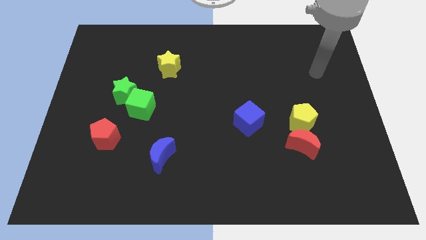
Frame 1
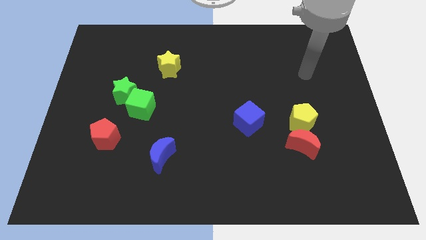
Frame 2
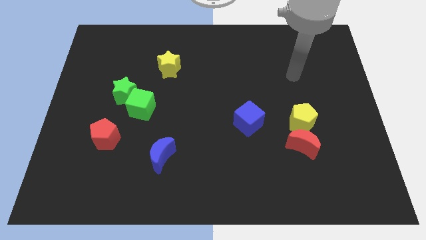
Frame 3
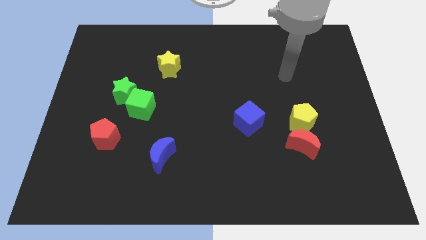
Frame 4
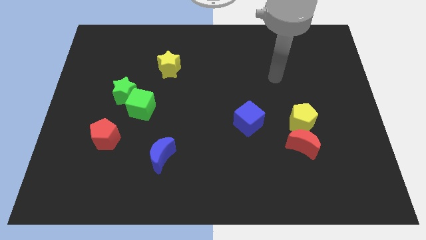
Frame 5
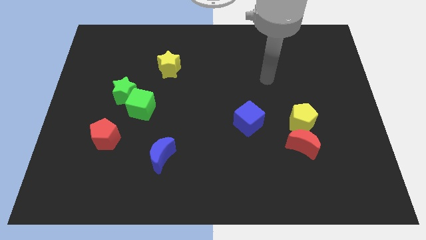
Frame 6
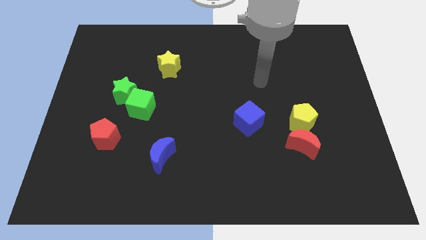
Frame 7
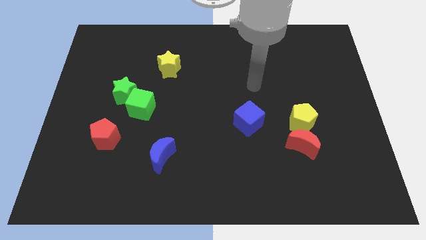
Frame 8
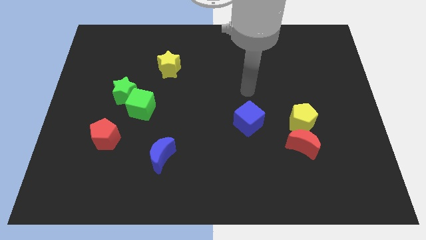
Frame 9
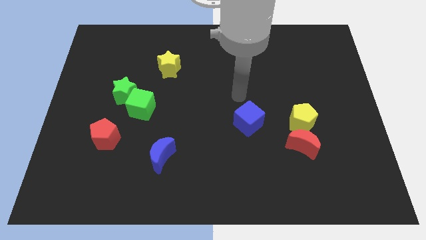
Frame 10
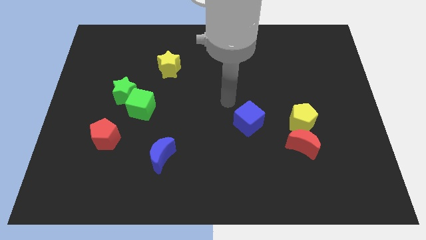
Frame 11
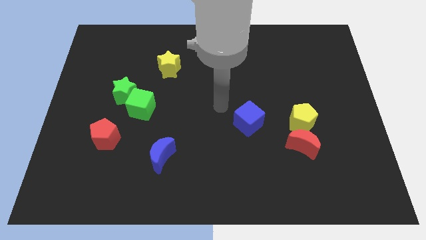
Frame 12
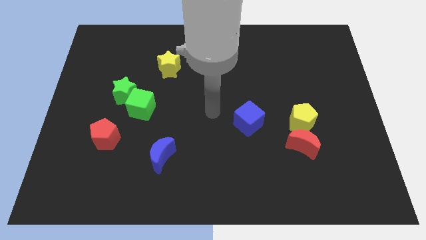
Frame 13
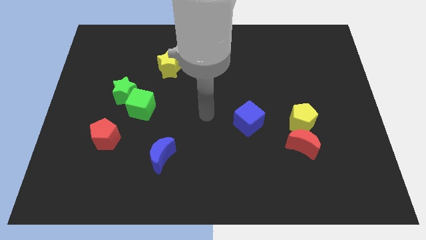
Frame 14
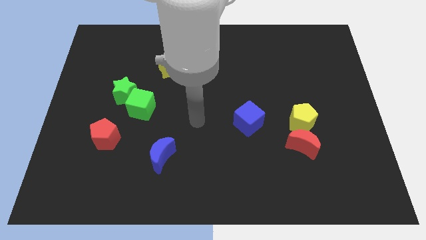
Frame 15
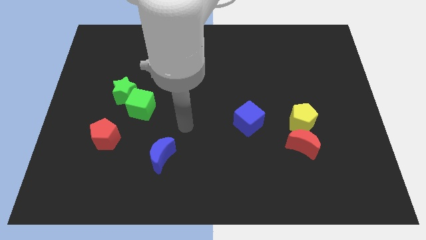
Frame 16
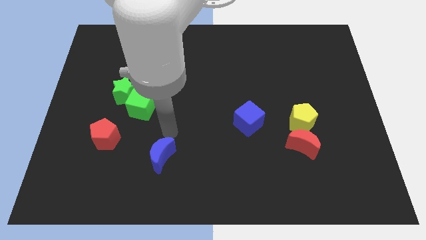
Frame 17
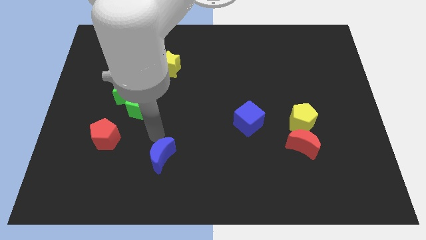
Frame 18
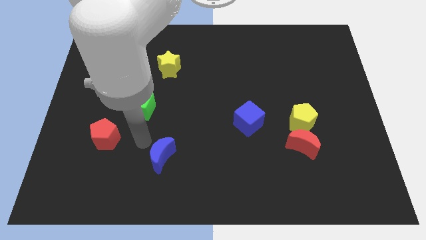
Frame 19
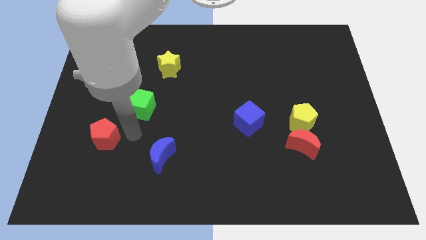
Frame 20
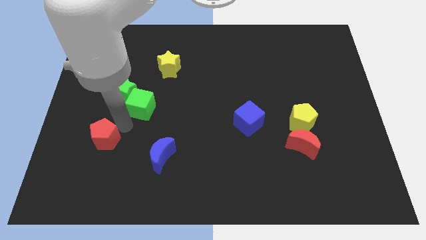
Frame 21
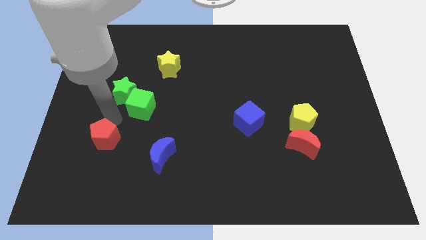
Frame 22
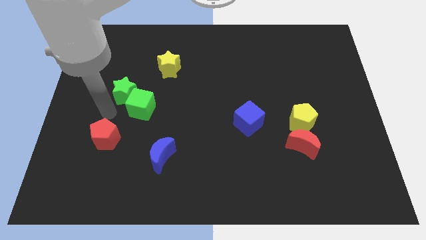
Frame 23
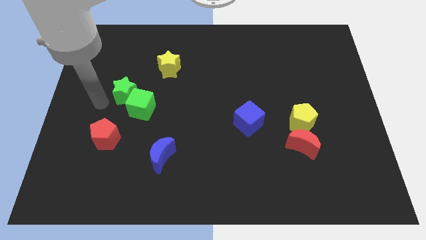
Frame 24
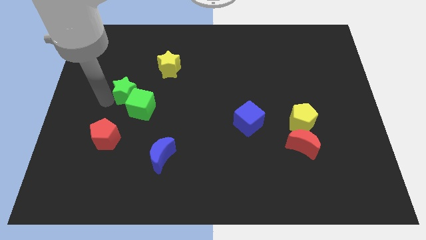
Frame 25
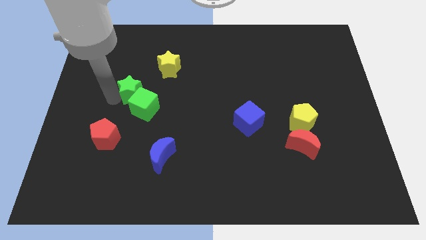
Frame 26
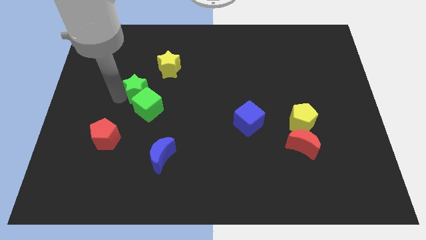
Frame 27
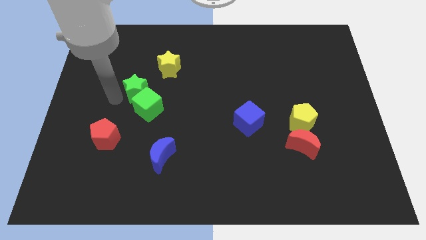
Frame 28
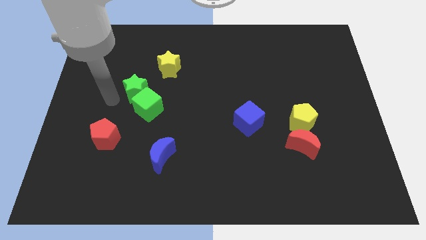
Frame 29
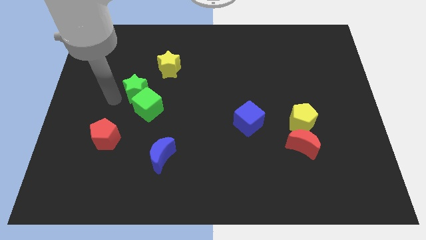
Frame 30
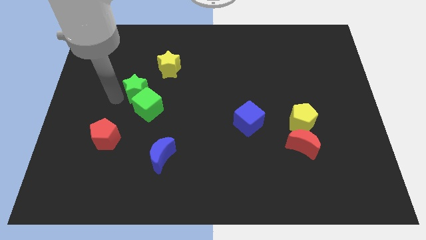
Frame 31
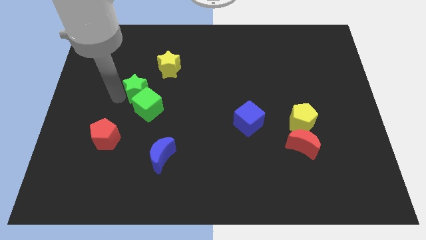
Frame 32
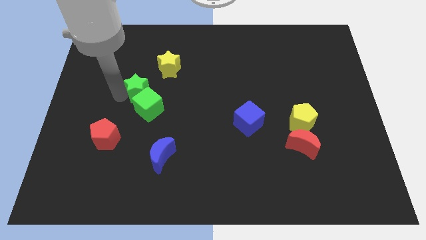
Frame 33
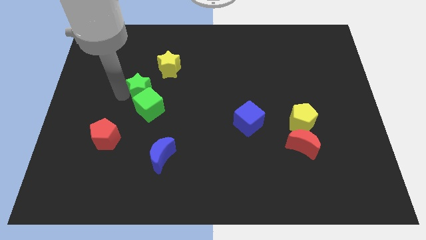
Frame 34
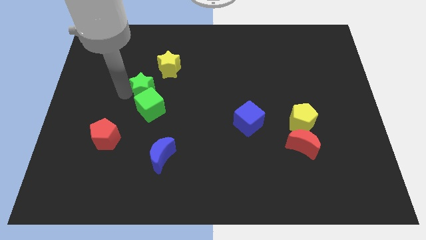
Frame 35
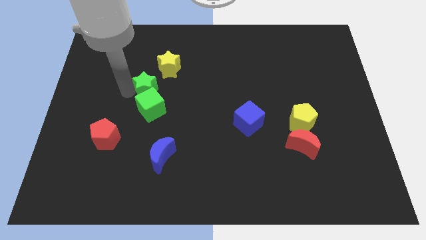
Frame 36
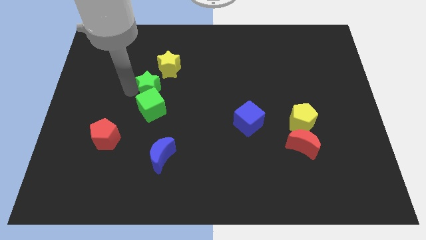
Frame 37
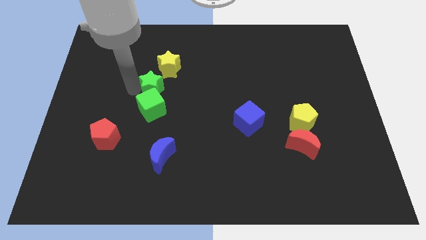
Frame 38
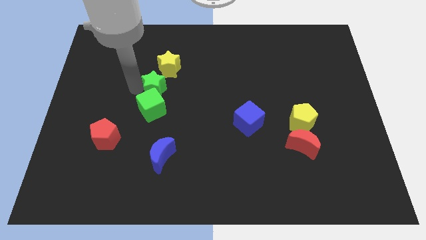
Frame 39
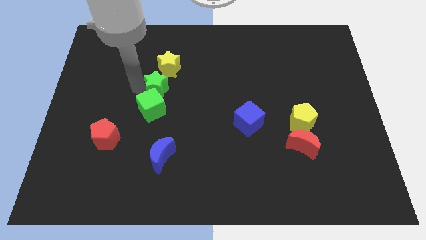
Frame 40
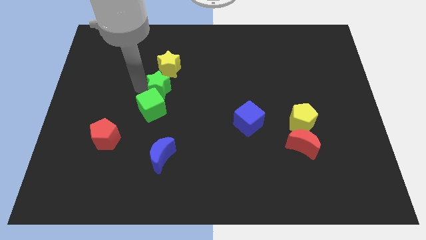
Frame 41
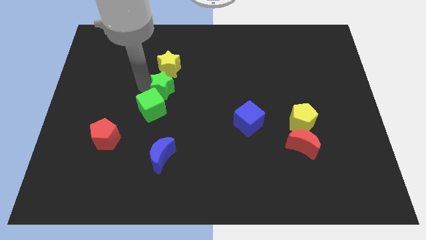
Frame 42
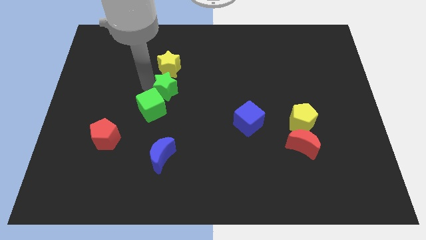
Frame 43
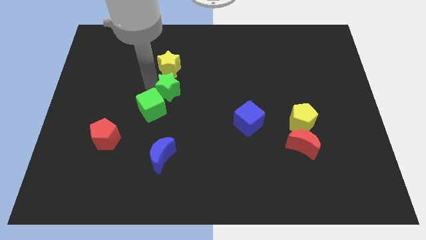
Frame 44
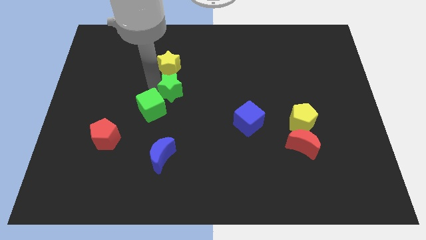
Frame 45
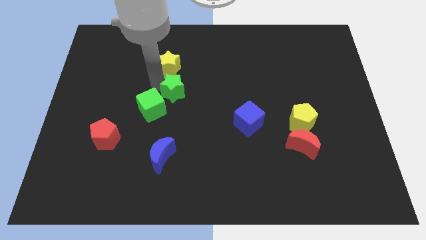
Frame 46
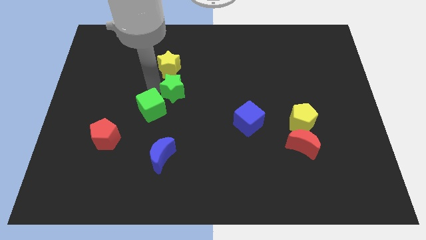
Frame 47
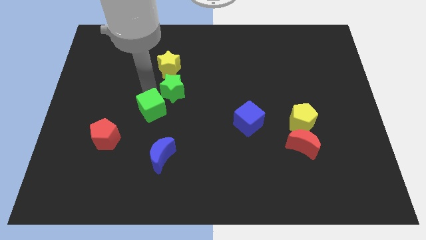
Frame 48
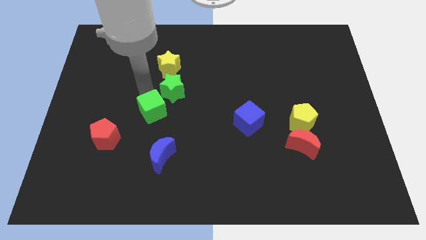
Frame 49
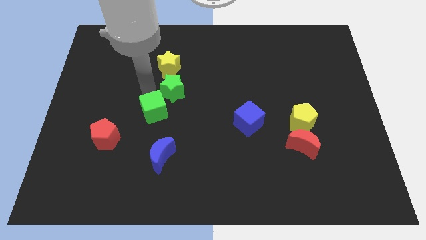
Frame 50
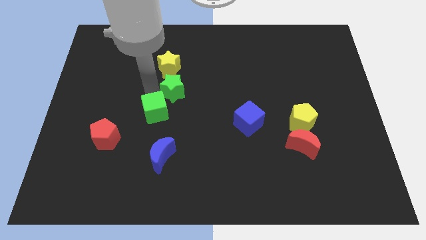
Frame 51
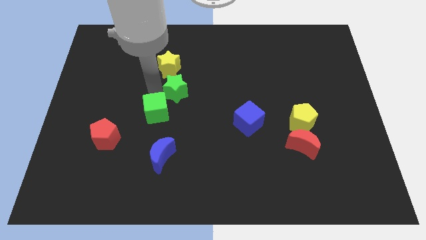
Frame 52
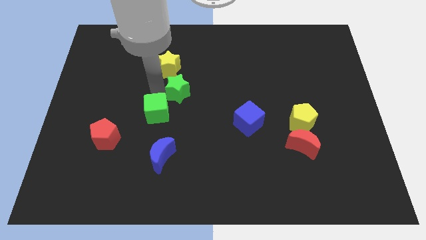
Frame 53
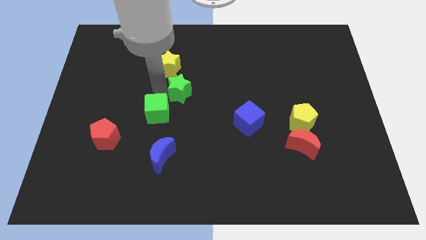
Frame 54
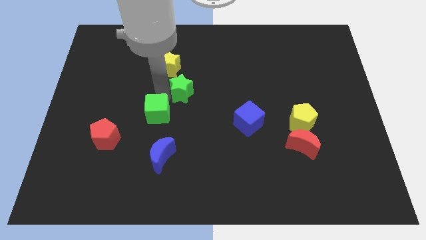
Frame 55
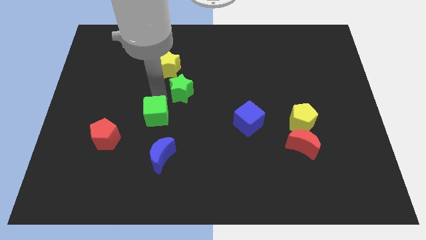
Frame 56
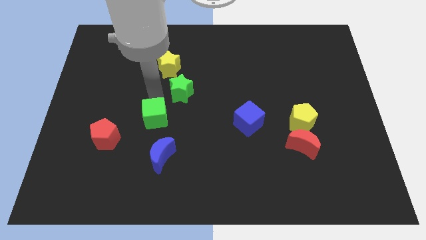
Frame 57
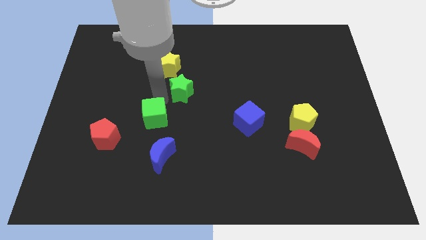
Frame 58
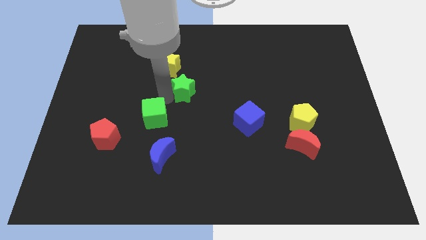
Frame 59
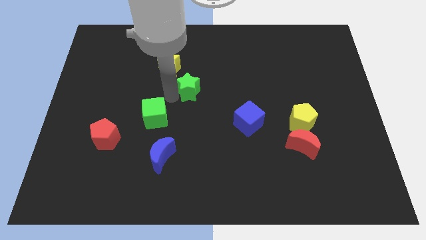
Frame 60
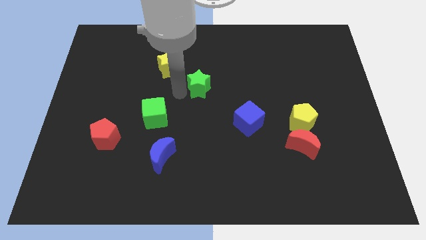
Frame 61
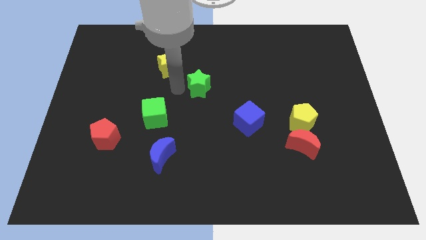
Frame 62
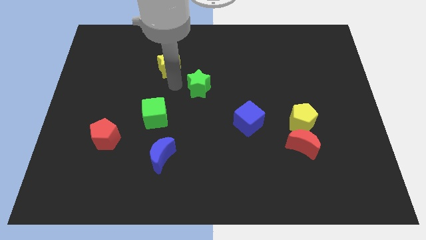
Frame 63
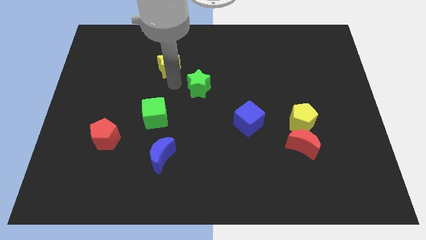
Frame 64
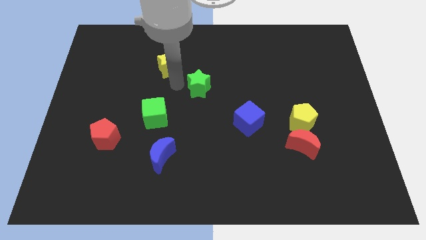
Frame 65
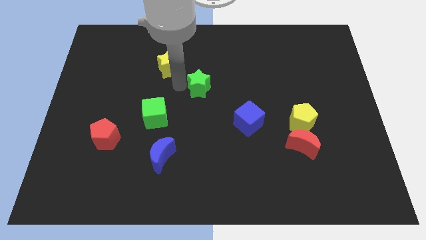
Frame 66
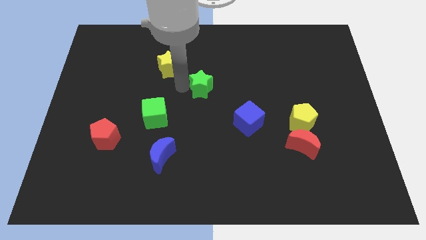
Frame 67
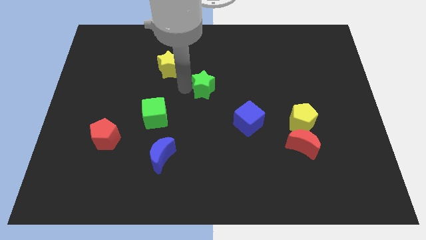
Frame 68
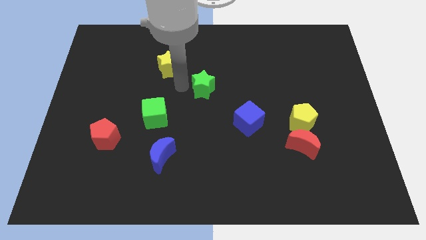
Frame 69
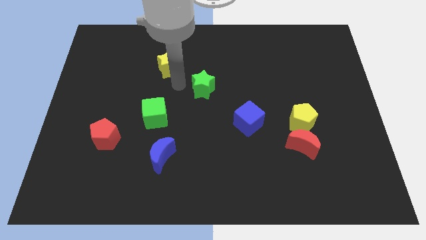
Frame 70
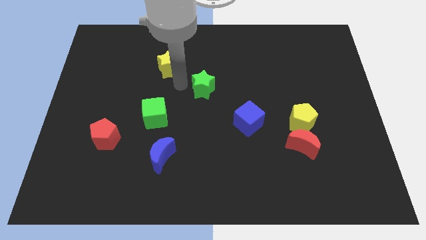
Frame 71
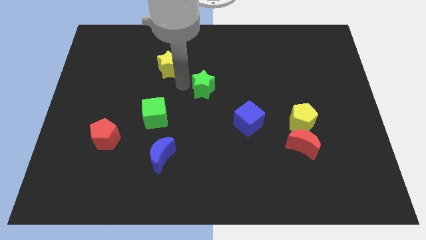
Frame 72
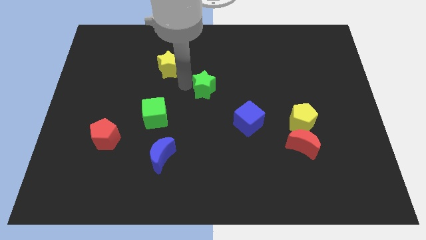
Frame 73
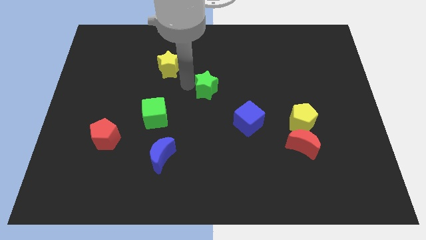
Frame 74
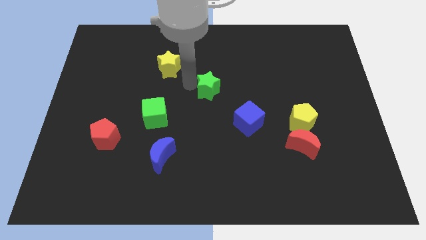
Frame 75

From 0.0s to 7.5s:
push the green star right

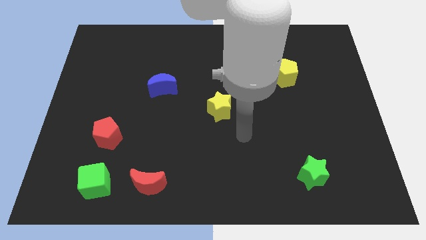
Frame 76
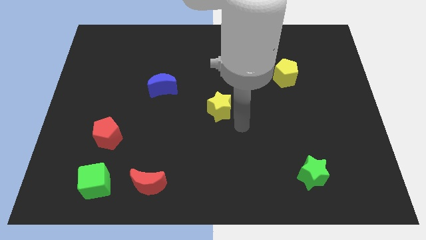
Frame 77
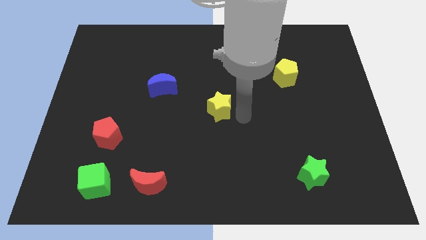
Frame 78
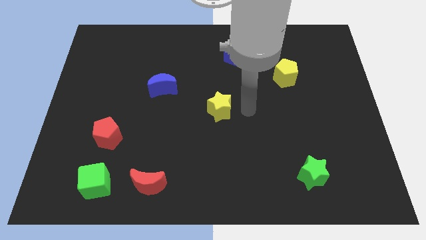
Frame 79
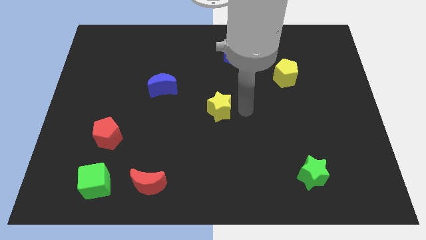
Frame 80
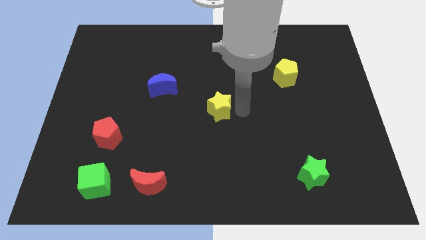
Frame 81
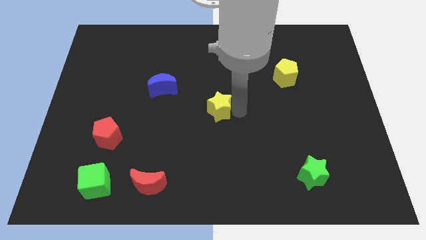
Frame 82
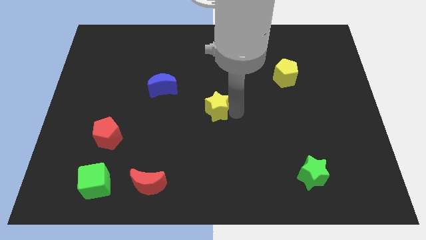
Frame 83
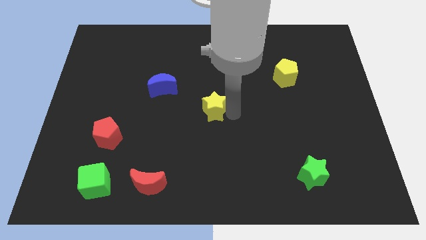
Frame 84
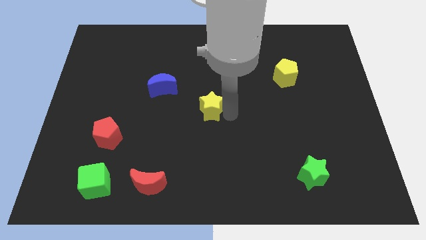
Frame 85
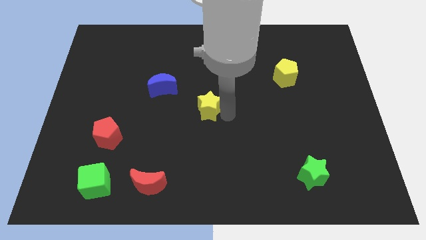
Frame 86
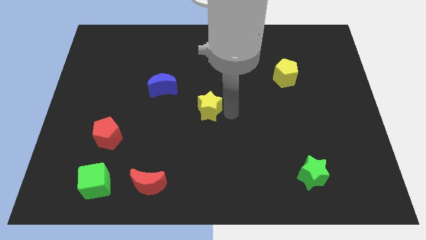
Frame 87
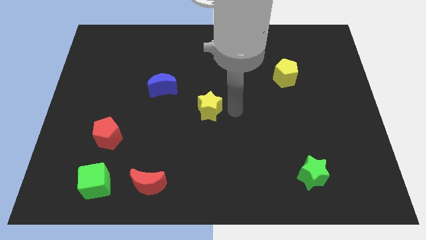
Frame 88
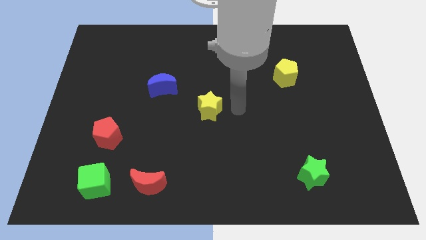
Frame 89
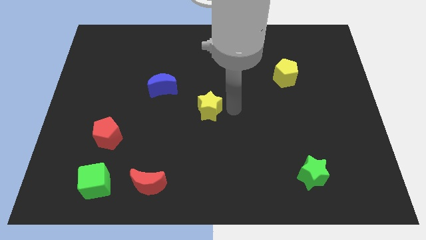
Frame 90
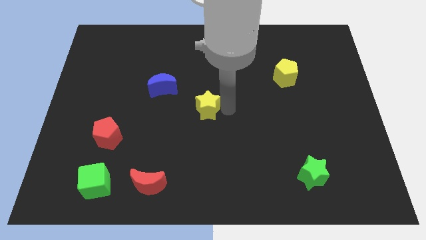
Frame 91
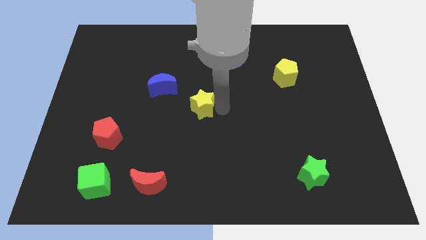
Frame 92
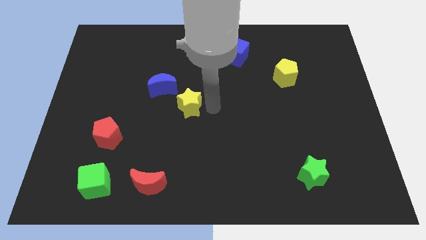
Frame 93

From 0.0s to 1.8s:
slightly slide the yellow star left
